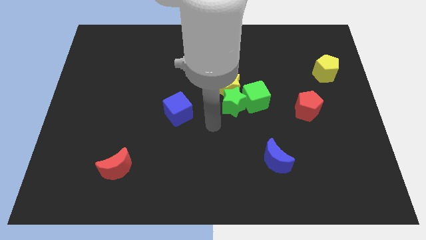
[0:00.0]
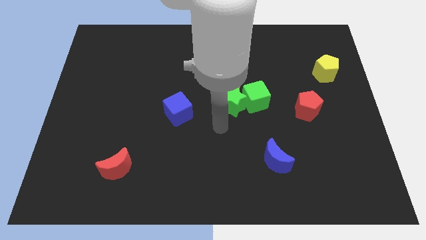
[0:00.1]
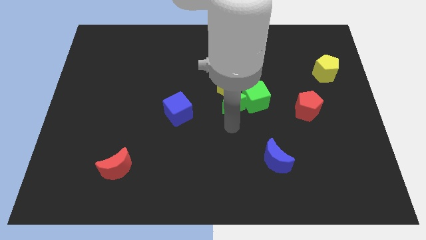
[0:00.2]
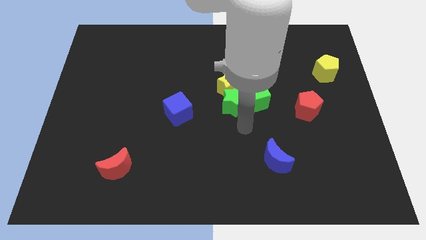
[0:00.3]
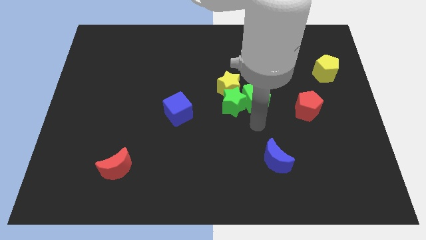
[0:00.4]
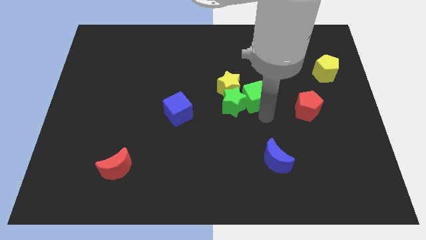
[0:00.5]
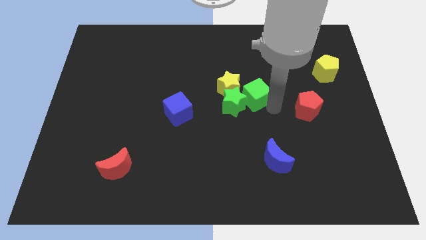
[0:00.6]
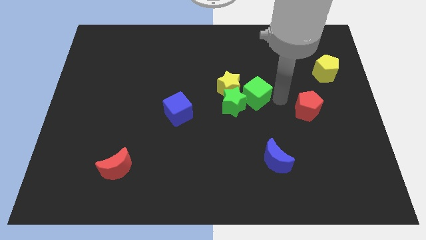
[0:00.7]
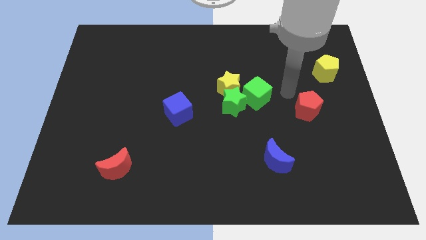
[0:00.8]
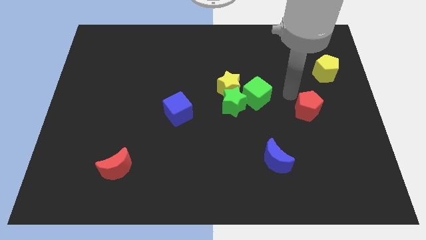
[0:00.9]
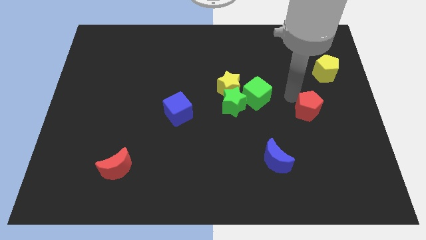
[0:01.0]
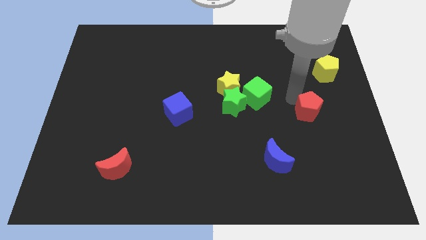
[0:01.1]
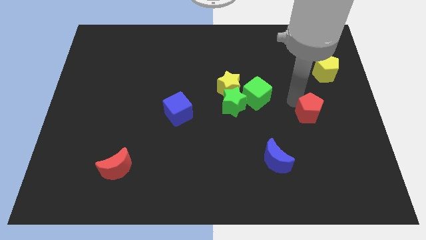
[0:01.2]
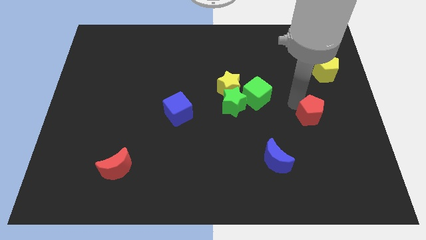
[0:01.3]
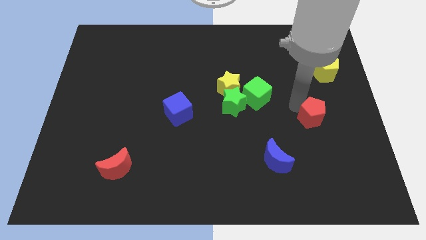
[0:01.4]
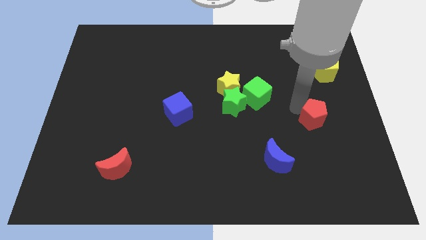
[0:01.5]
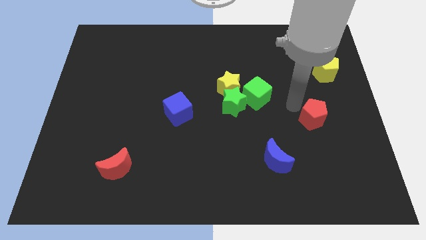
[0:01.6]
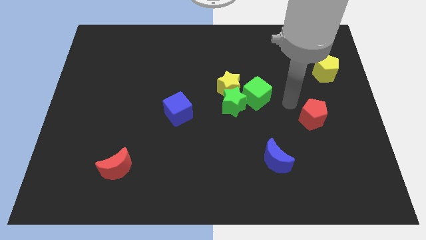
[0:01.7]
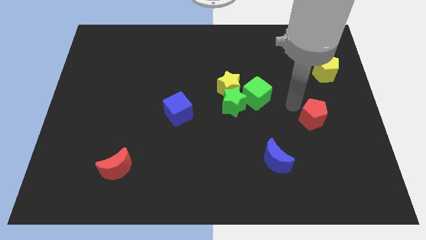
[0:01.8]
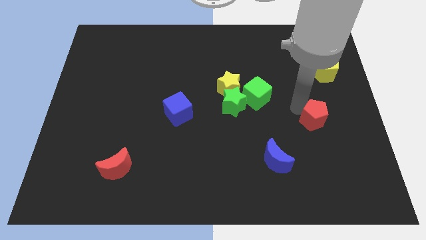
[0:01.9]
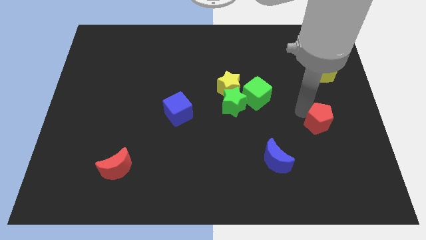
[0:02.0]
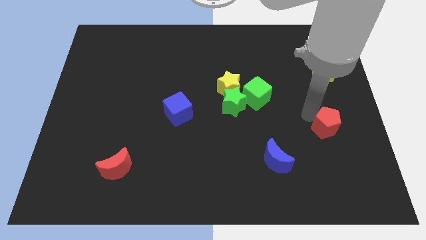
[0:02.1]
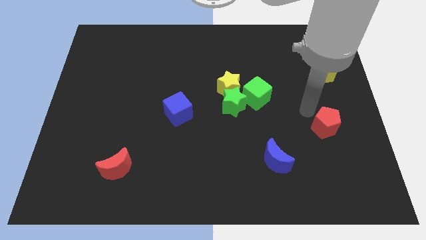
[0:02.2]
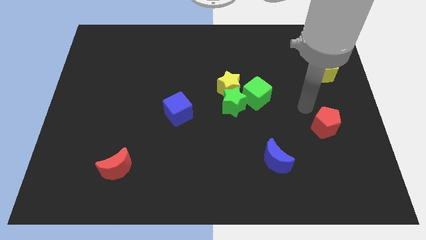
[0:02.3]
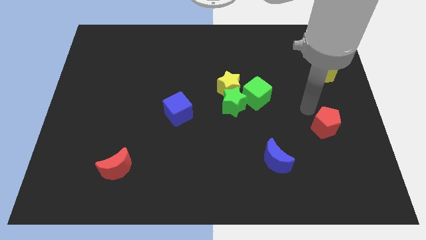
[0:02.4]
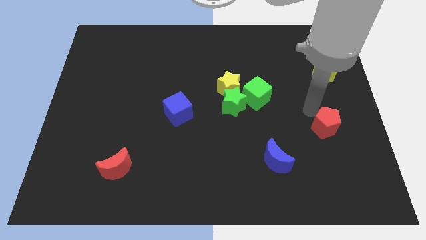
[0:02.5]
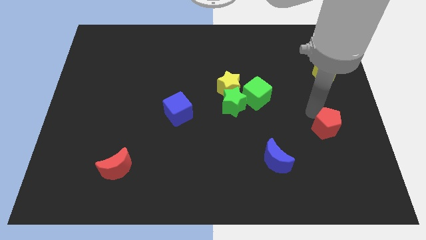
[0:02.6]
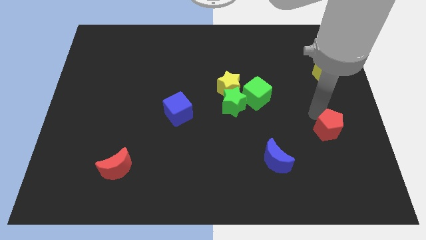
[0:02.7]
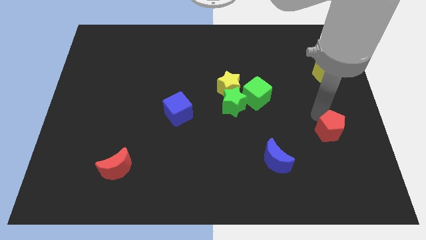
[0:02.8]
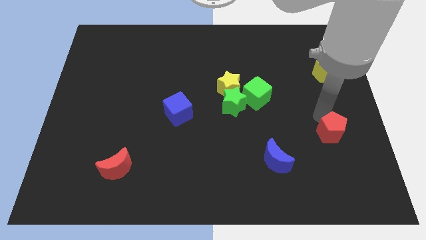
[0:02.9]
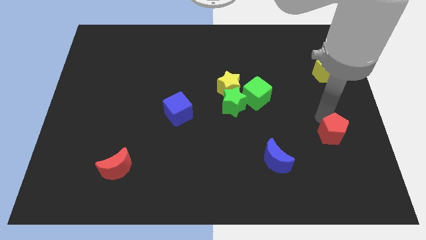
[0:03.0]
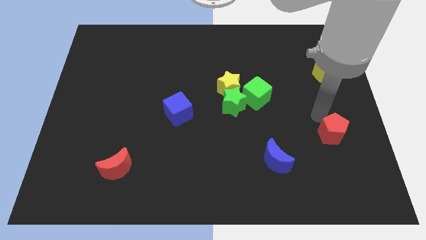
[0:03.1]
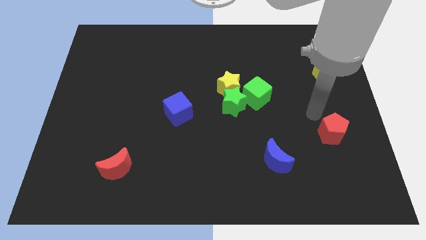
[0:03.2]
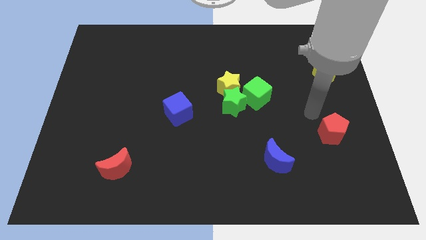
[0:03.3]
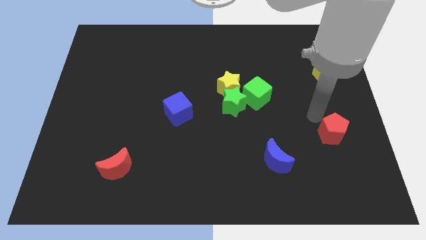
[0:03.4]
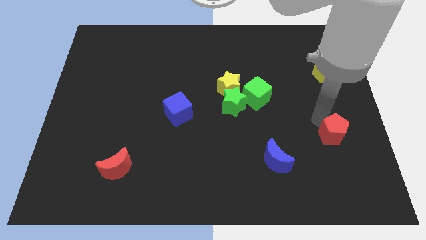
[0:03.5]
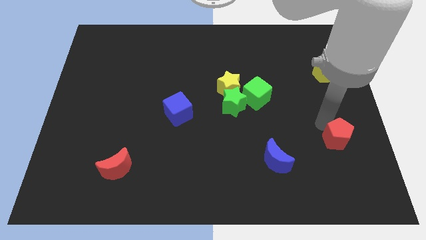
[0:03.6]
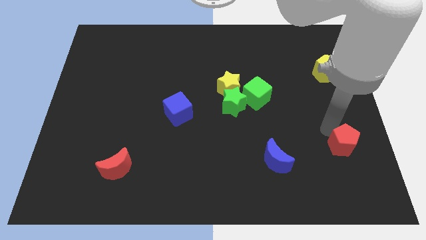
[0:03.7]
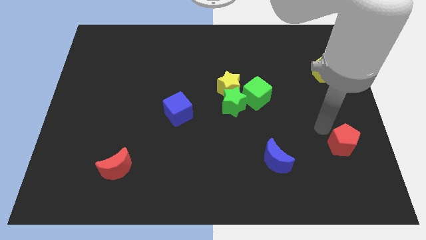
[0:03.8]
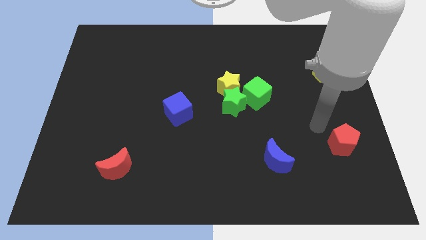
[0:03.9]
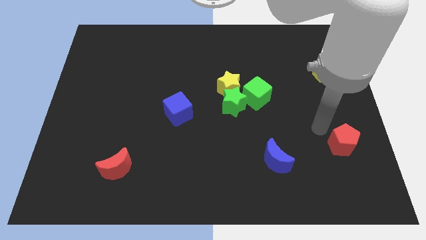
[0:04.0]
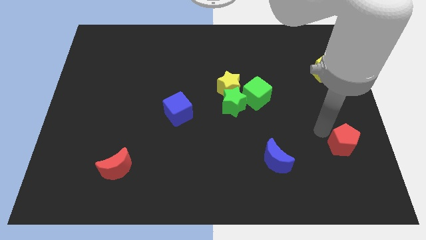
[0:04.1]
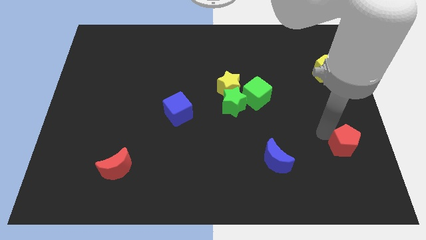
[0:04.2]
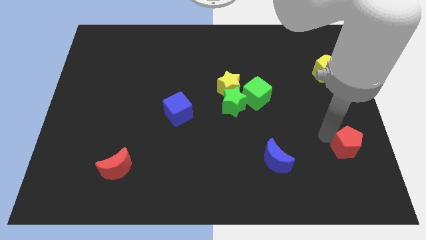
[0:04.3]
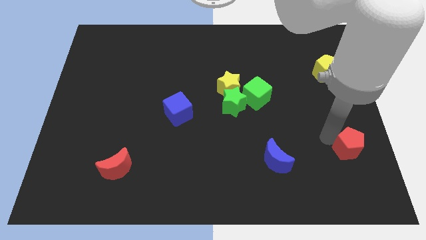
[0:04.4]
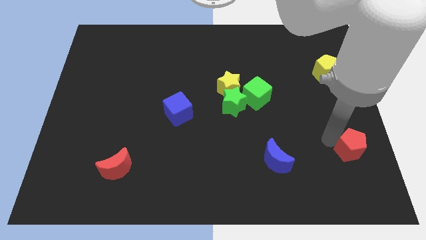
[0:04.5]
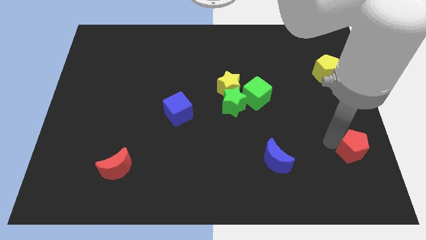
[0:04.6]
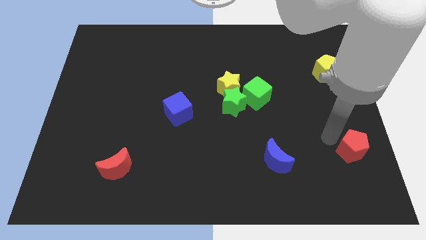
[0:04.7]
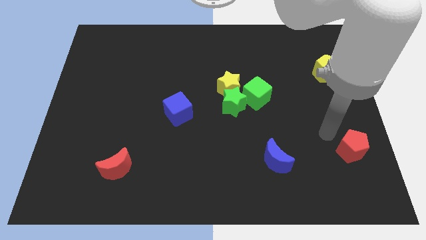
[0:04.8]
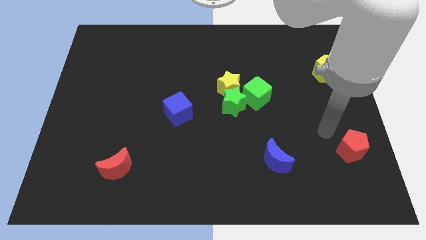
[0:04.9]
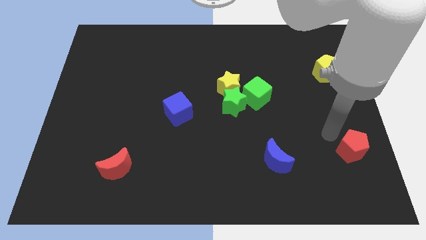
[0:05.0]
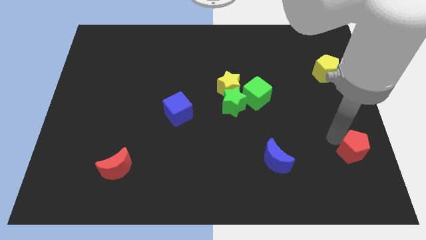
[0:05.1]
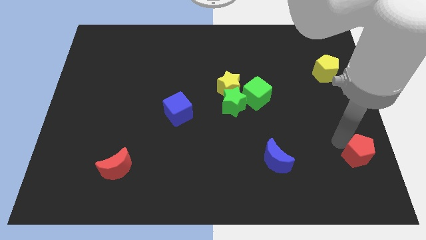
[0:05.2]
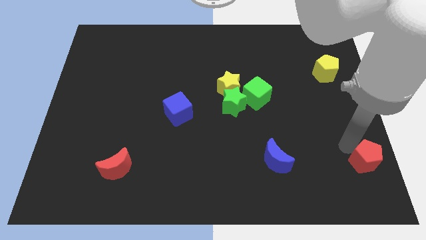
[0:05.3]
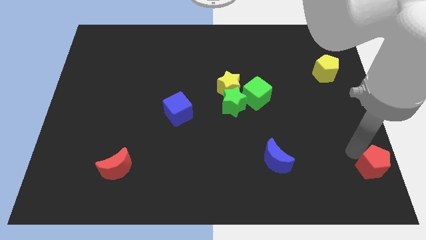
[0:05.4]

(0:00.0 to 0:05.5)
slide the red pentagon to the lower right corner

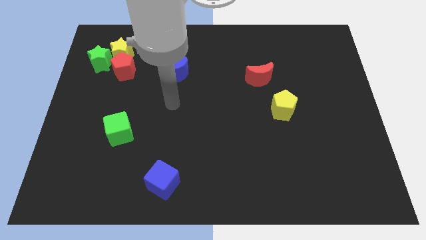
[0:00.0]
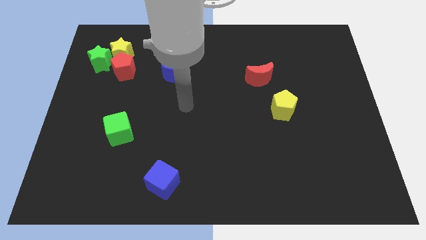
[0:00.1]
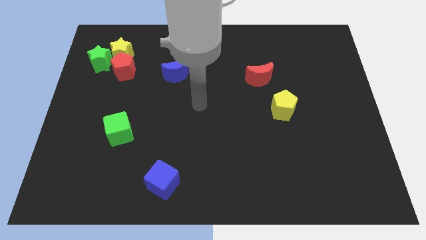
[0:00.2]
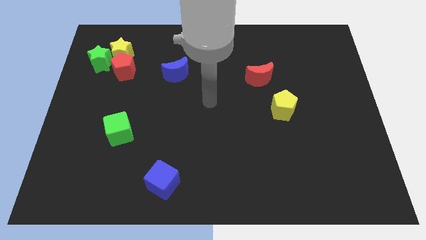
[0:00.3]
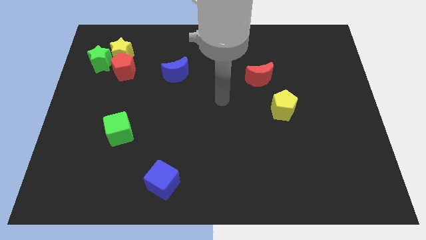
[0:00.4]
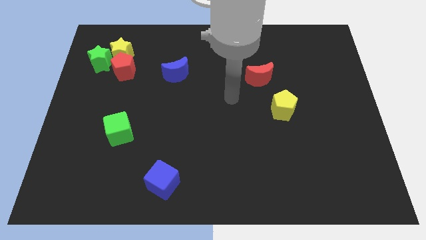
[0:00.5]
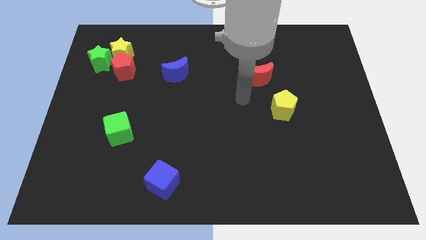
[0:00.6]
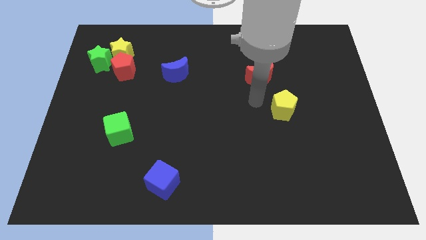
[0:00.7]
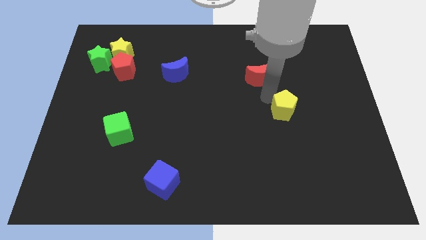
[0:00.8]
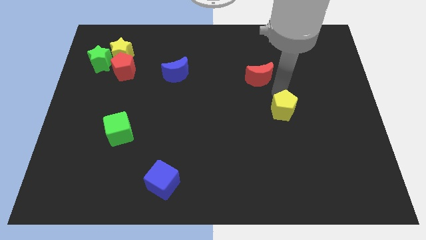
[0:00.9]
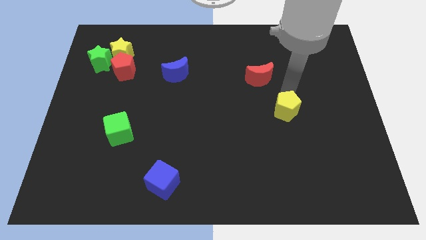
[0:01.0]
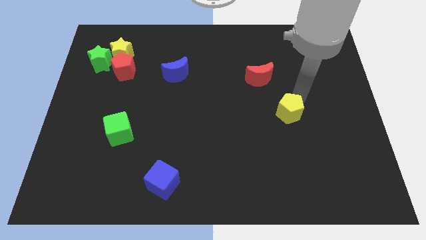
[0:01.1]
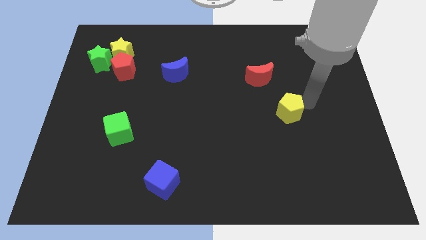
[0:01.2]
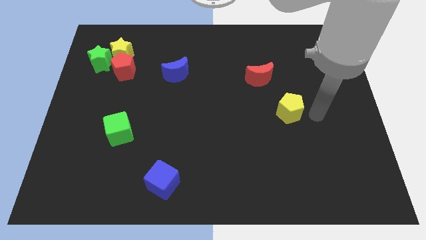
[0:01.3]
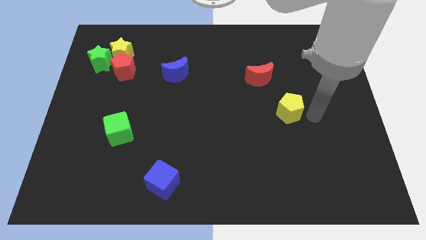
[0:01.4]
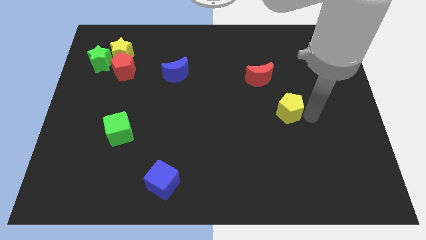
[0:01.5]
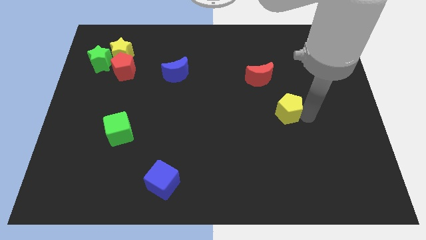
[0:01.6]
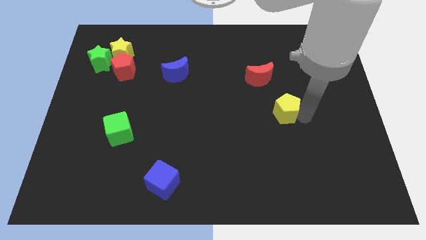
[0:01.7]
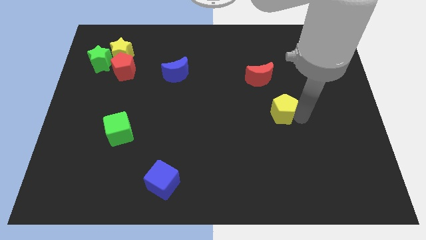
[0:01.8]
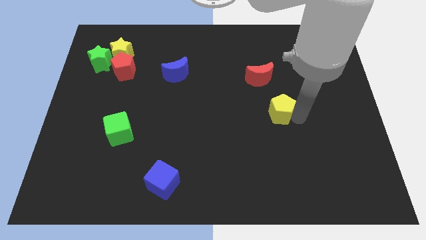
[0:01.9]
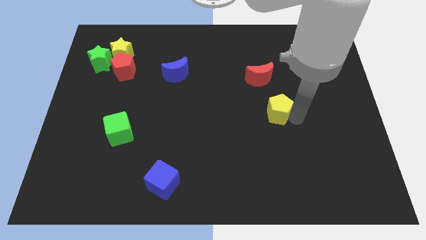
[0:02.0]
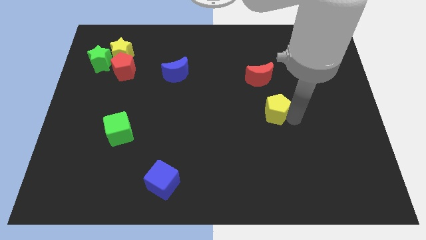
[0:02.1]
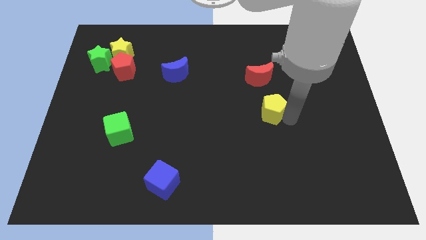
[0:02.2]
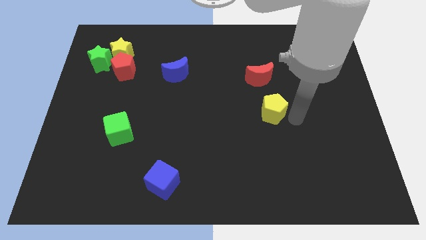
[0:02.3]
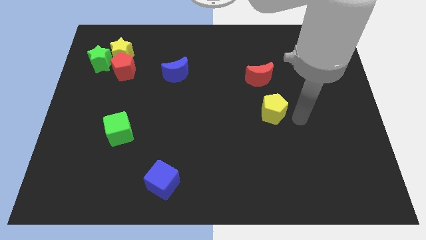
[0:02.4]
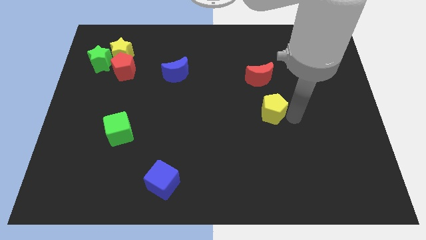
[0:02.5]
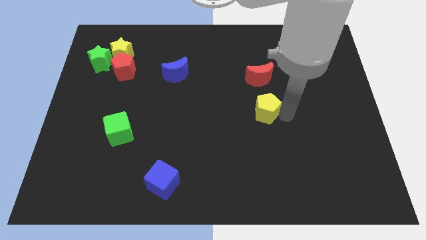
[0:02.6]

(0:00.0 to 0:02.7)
push the yellow pentagon to the middle
